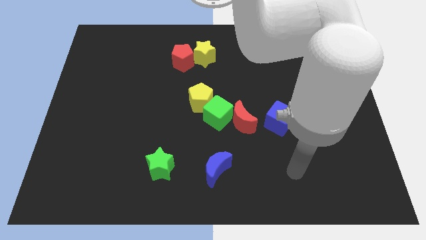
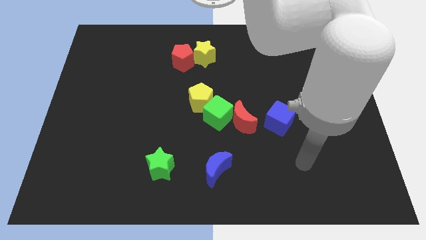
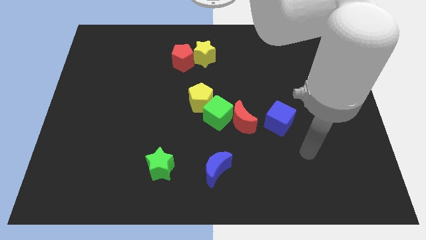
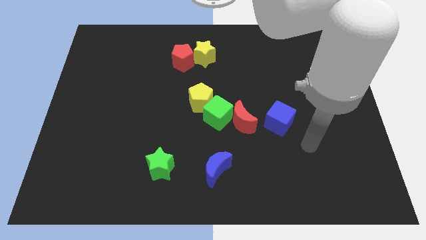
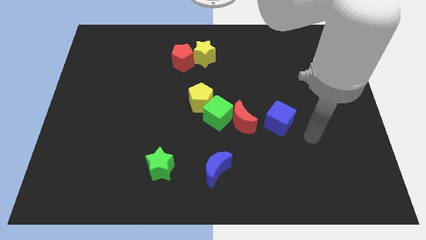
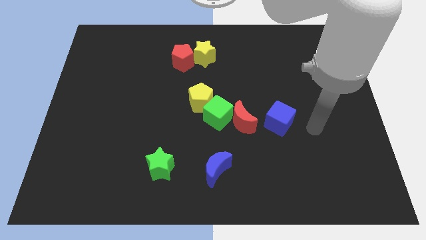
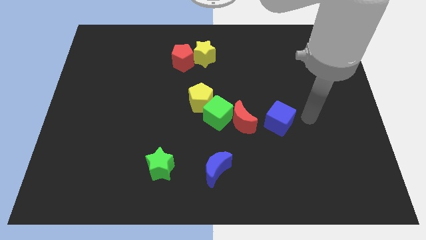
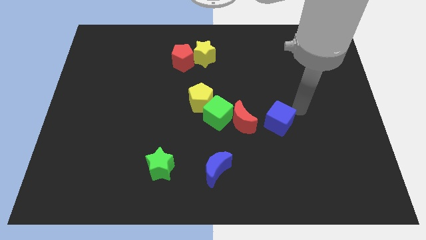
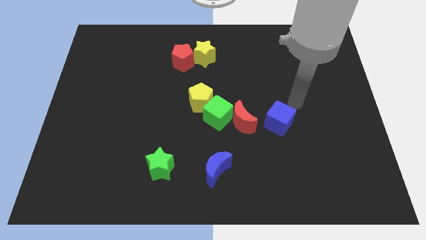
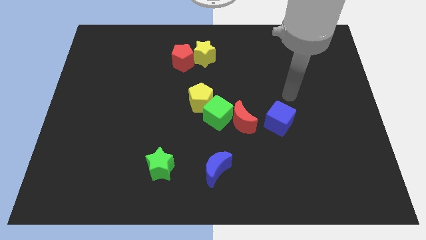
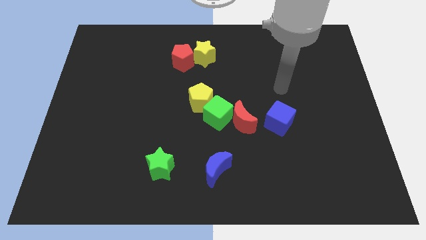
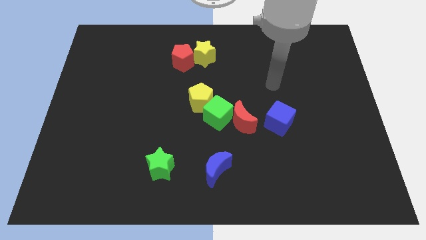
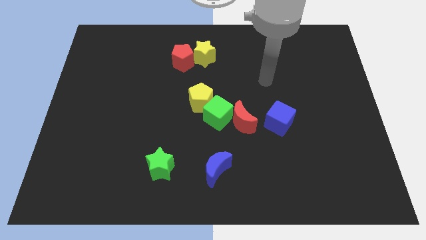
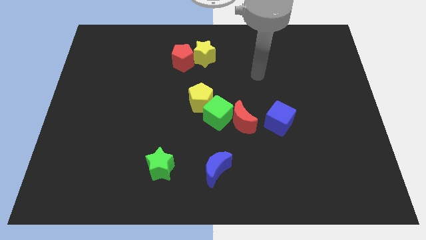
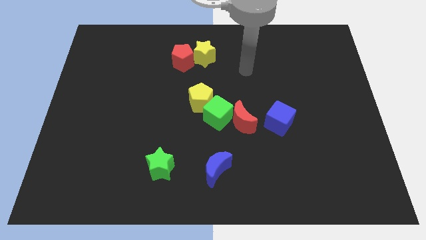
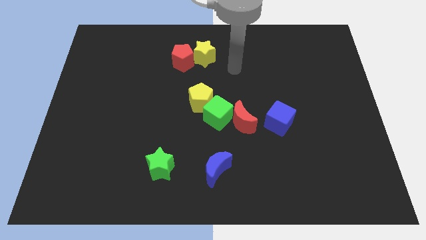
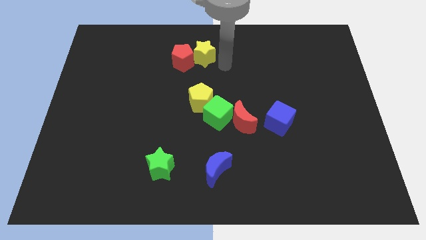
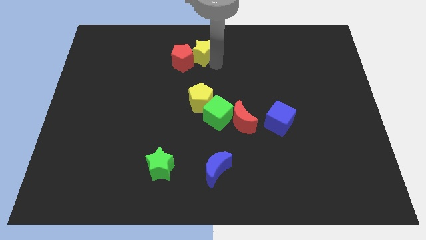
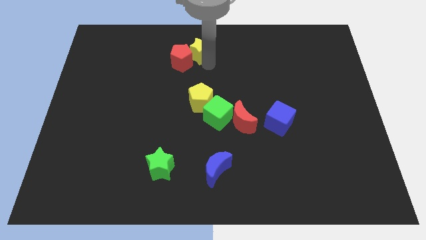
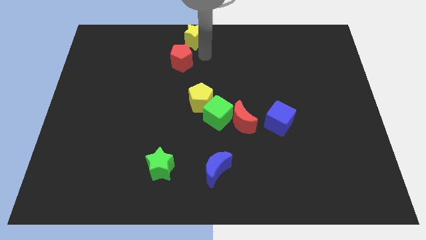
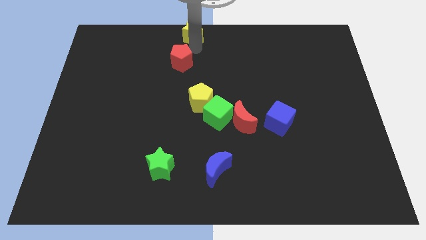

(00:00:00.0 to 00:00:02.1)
pull the red pentagon apart from the yellow star

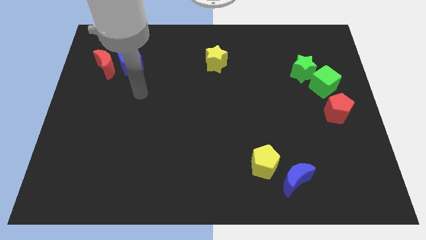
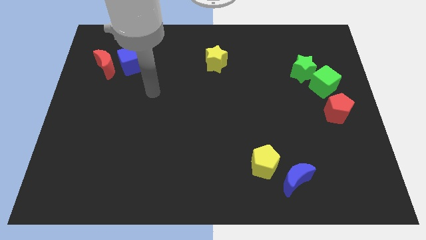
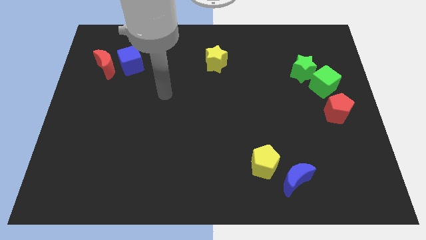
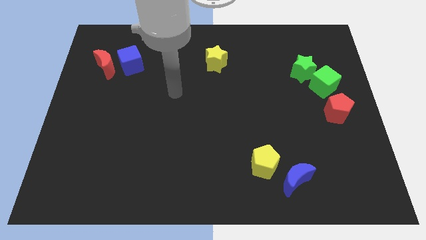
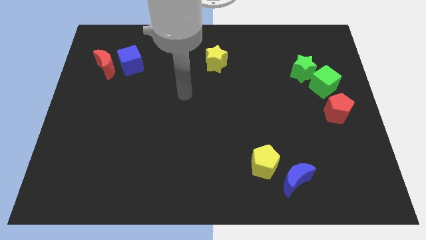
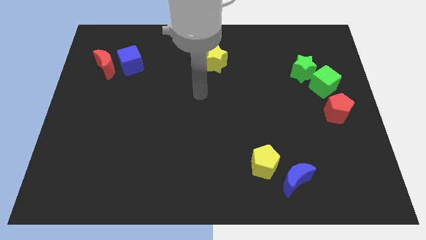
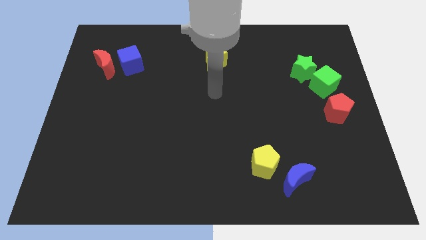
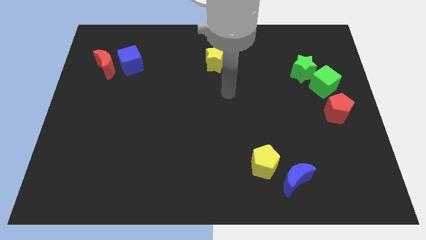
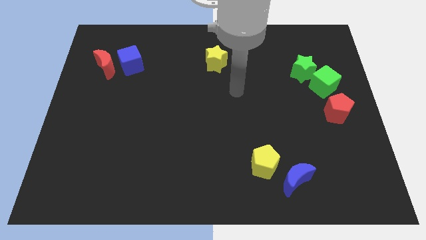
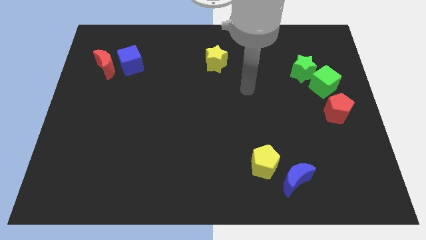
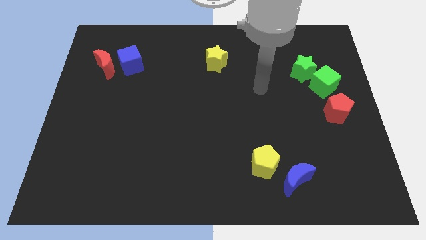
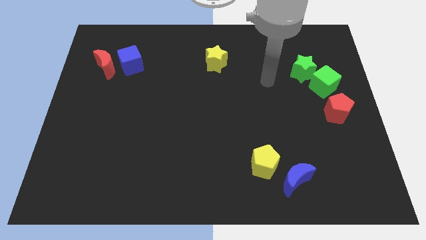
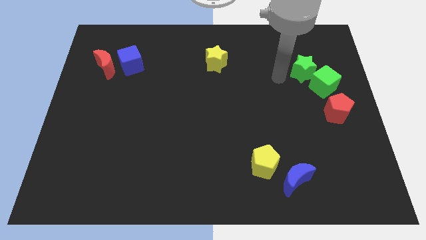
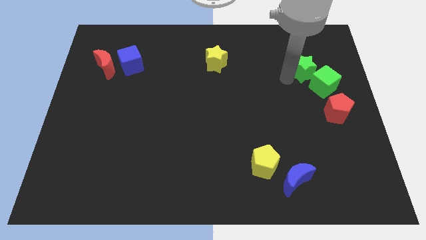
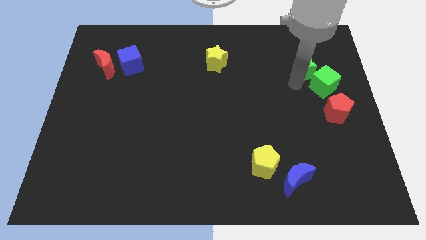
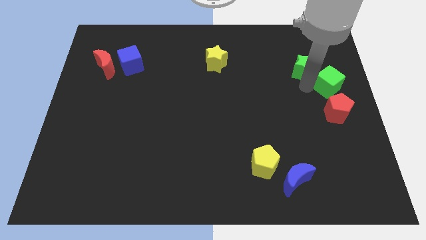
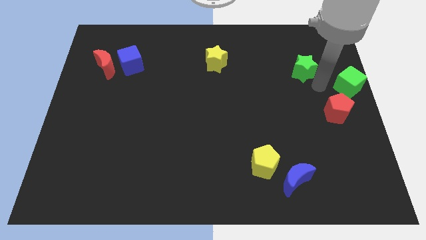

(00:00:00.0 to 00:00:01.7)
separate the green star from the green cube

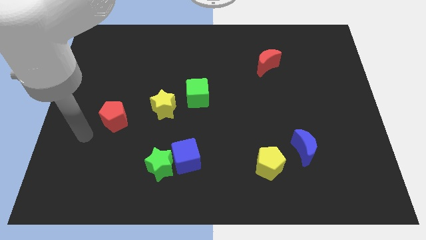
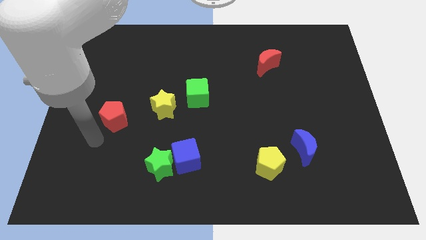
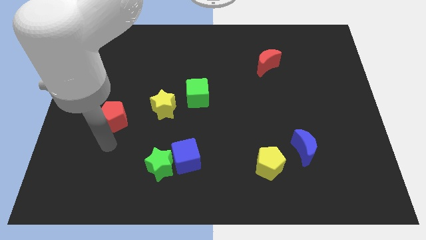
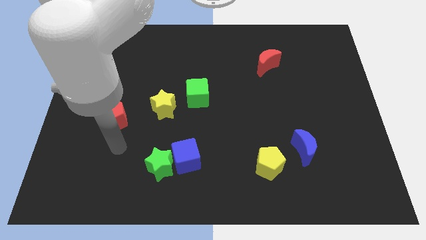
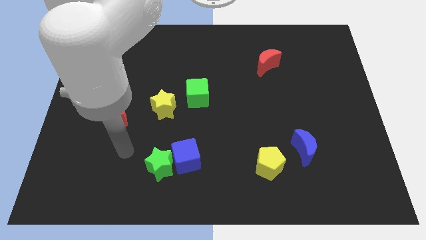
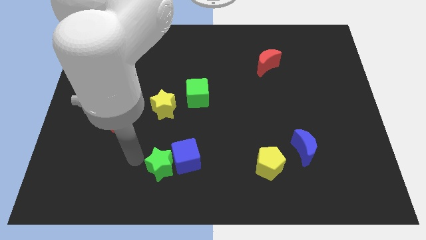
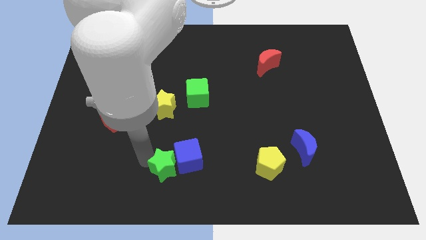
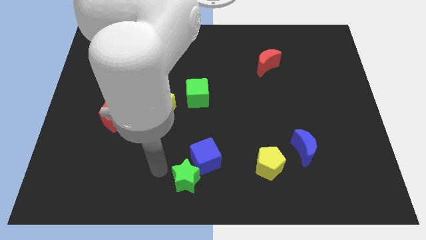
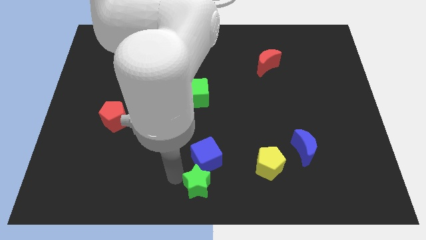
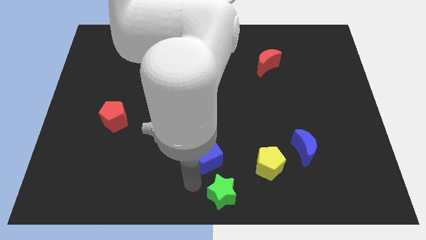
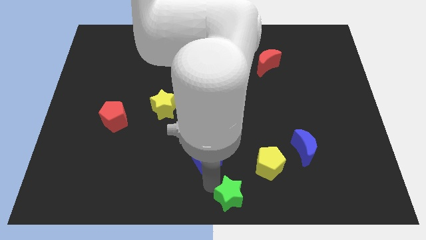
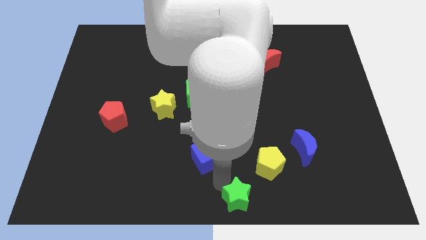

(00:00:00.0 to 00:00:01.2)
separate the blue cube from the green star

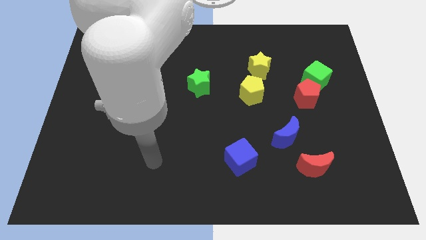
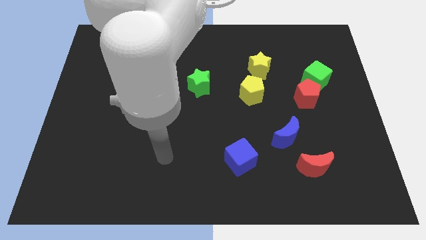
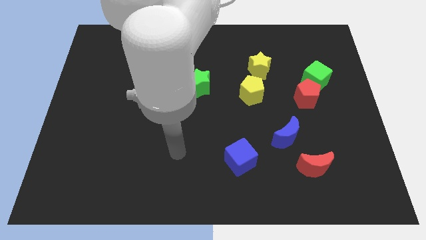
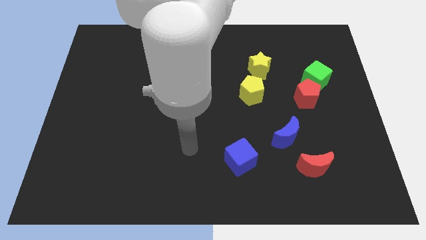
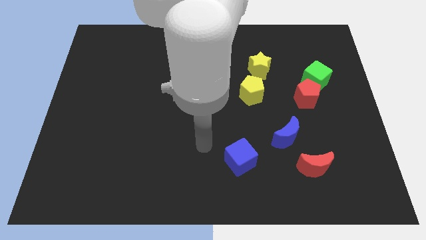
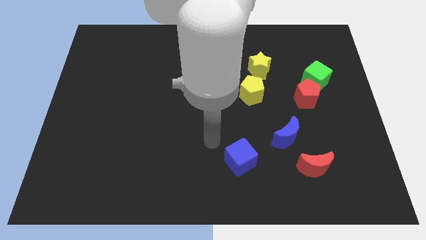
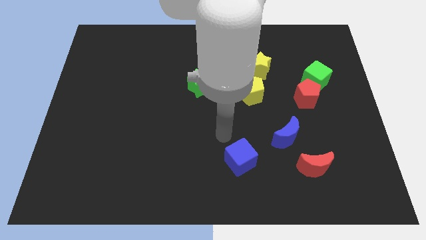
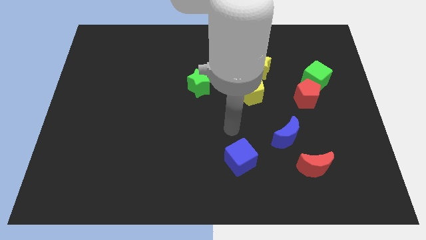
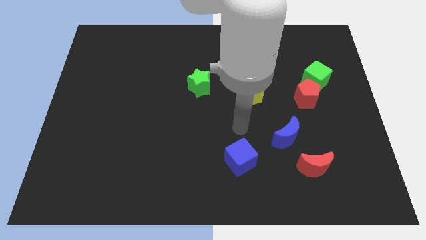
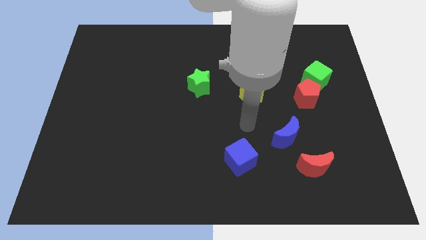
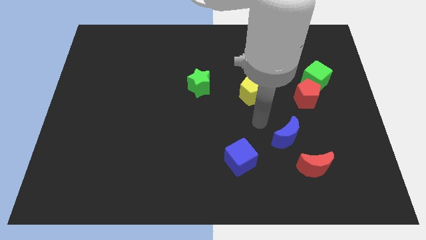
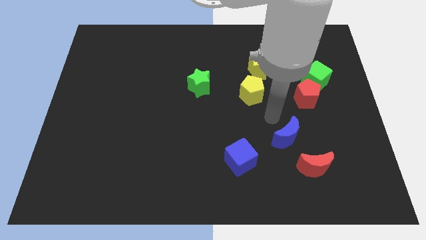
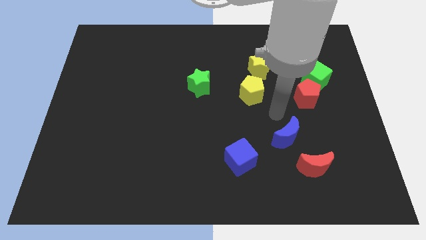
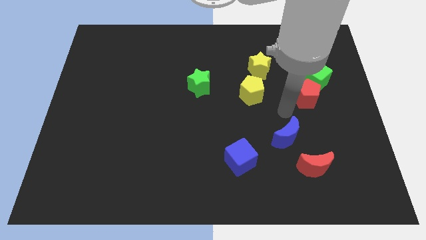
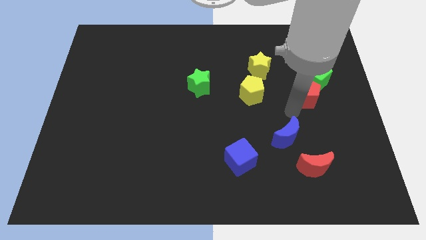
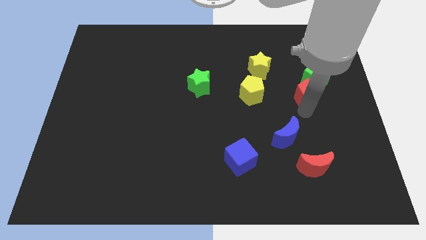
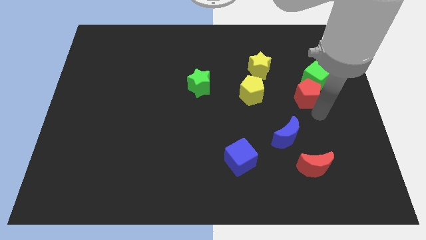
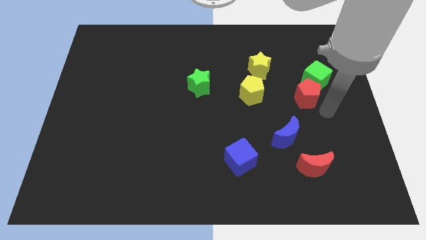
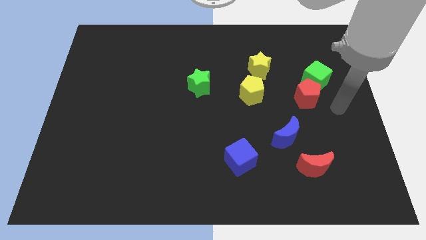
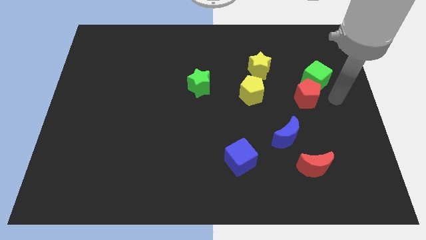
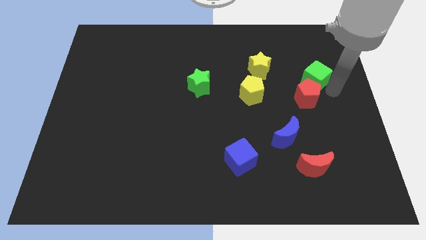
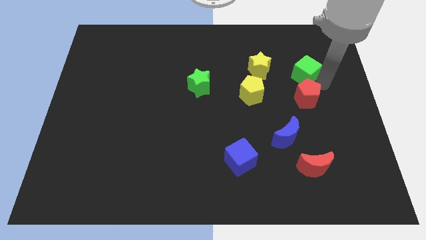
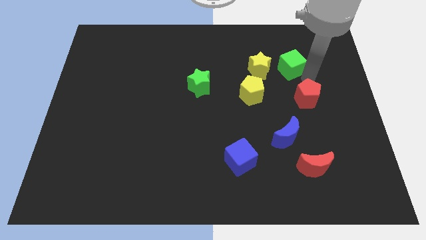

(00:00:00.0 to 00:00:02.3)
pull the red pentagon apart from the green cube

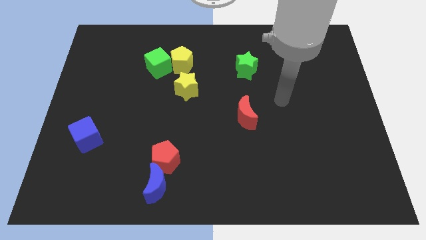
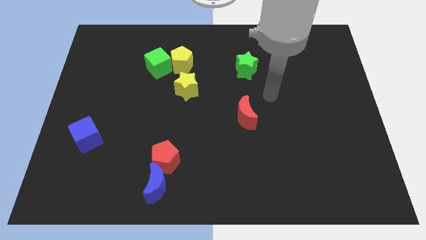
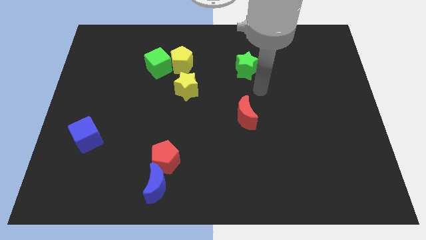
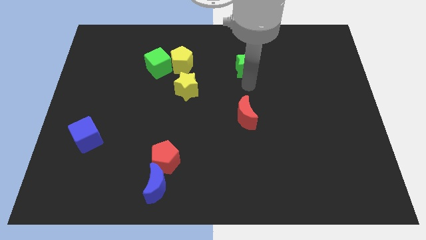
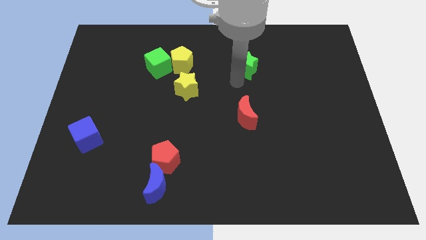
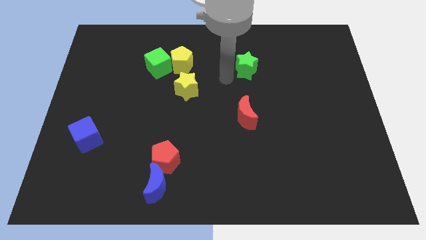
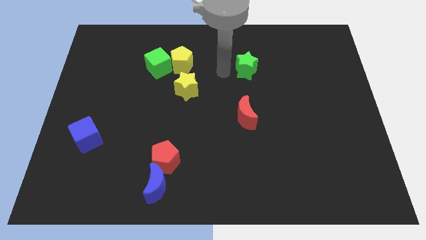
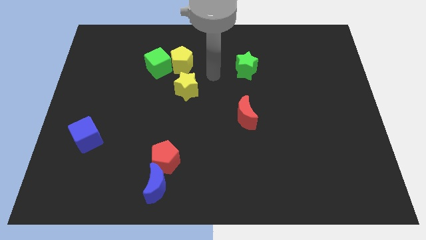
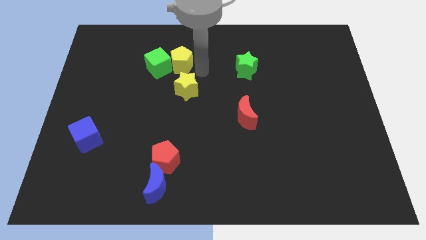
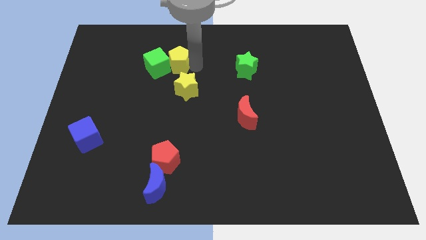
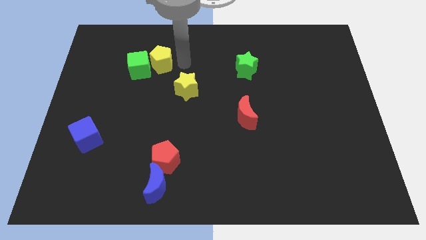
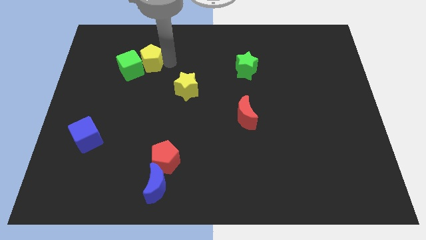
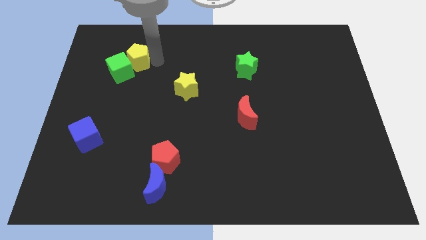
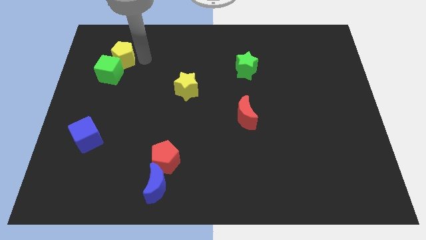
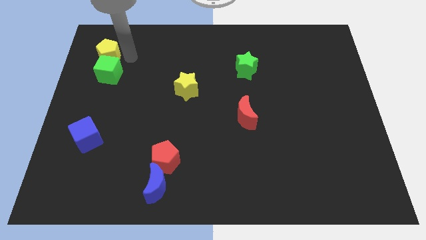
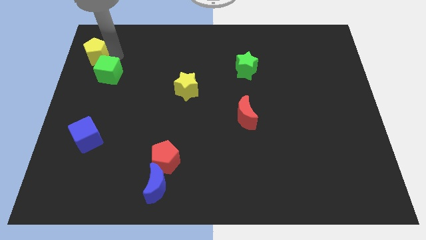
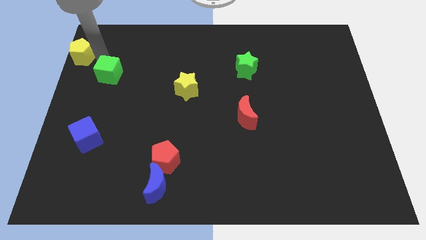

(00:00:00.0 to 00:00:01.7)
pull the green cube apart from the yellow pentagon

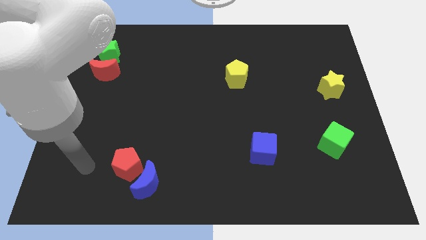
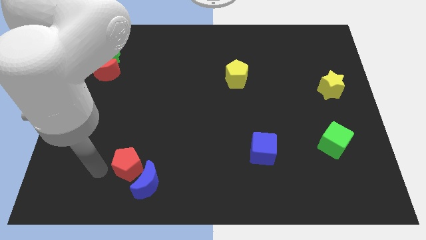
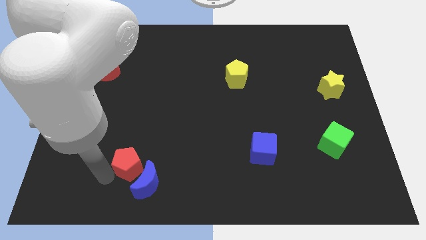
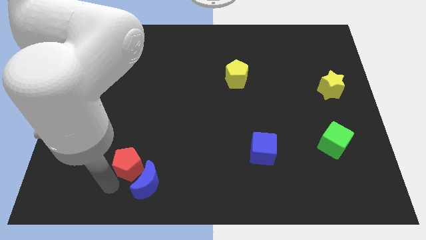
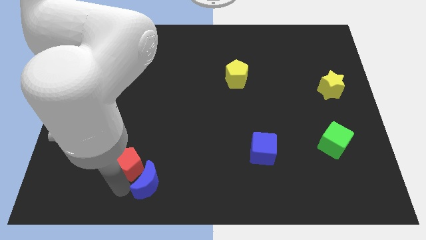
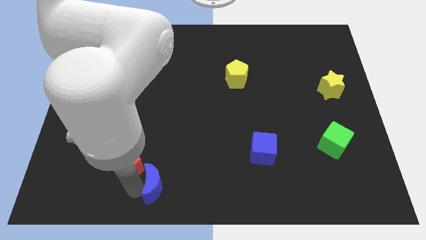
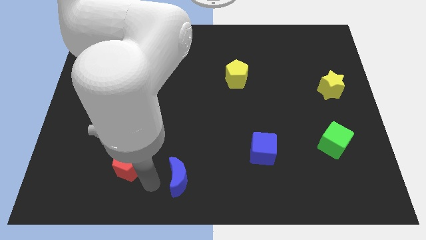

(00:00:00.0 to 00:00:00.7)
move the red pentagon away from the blue moon
